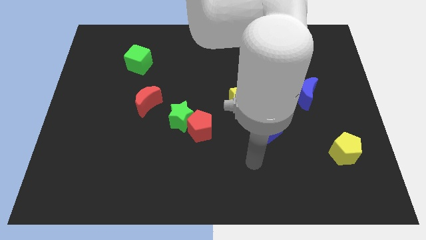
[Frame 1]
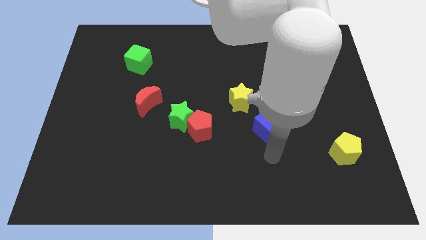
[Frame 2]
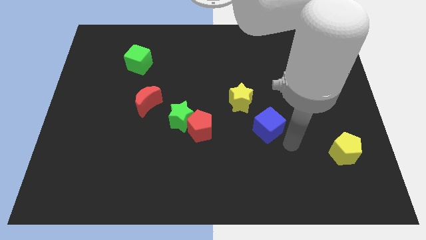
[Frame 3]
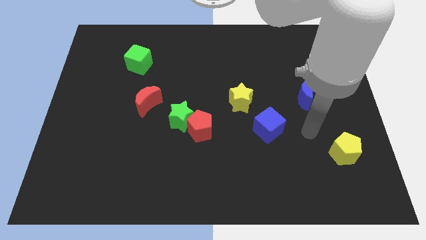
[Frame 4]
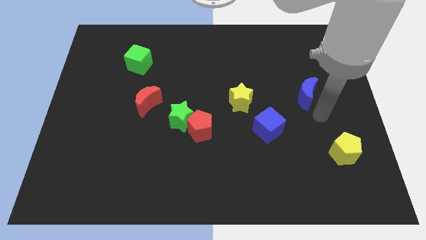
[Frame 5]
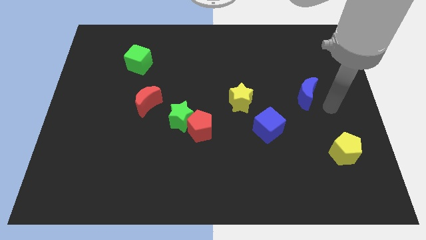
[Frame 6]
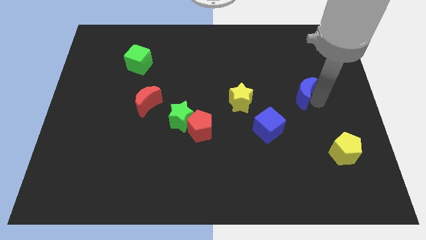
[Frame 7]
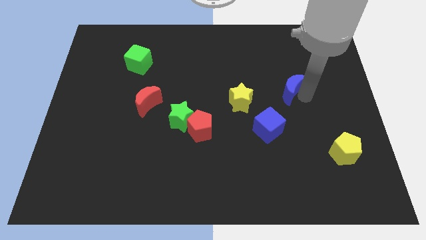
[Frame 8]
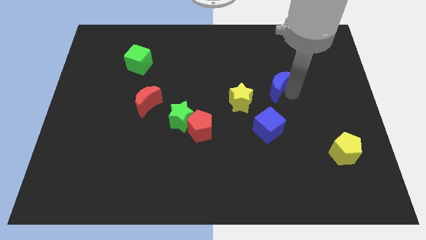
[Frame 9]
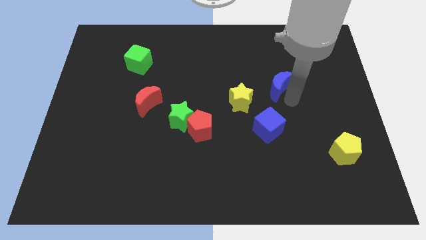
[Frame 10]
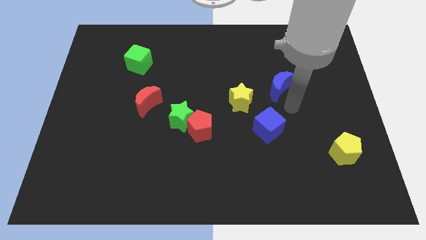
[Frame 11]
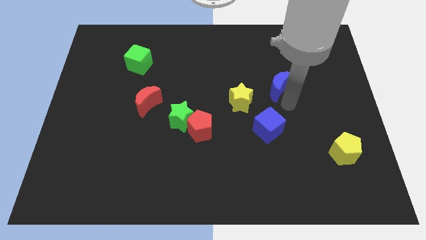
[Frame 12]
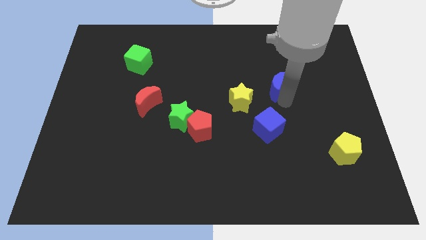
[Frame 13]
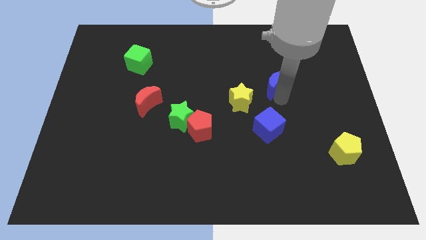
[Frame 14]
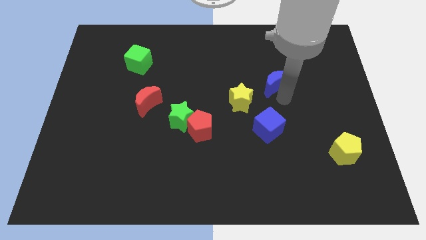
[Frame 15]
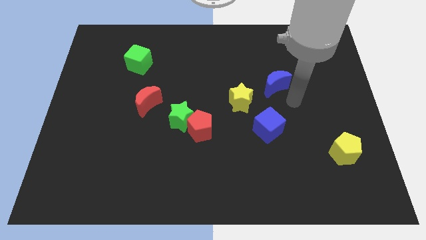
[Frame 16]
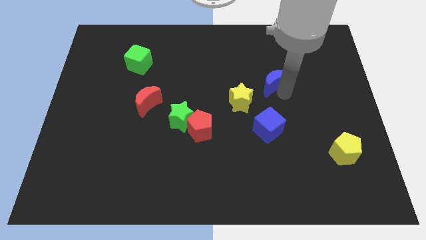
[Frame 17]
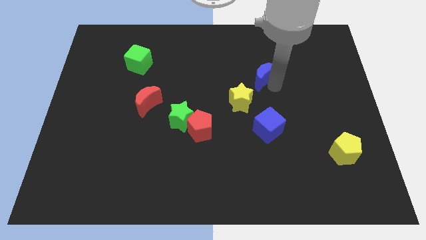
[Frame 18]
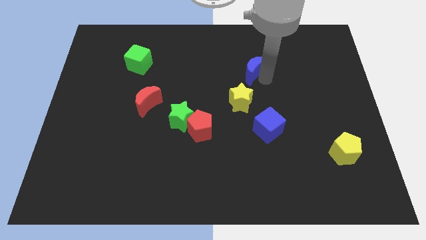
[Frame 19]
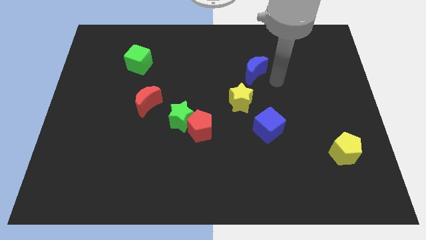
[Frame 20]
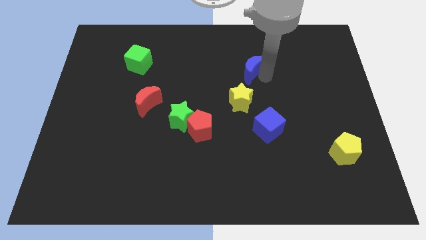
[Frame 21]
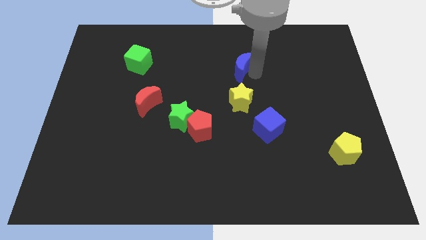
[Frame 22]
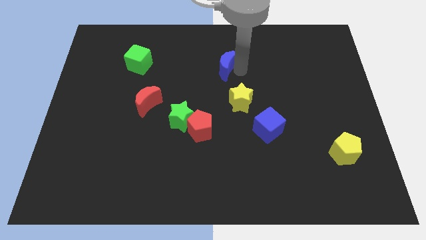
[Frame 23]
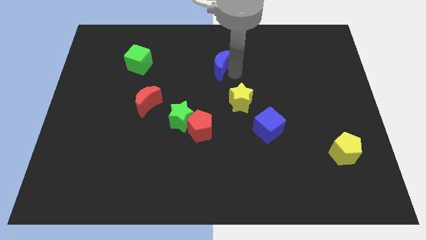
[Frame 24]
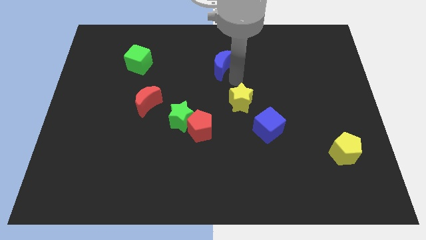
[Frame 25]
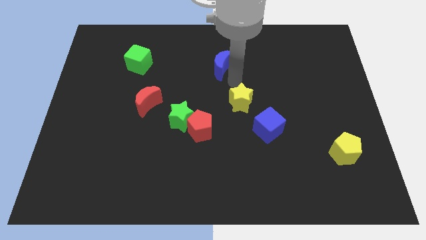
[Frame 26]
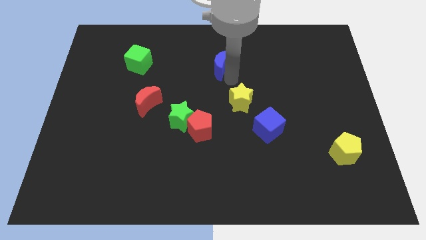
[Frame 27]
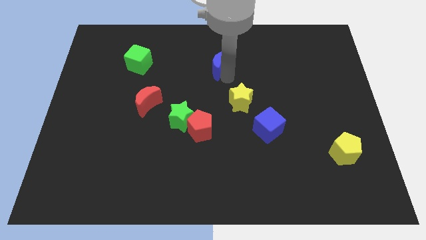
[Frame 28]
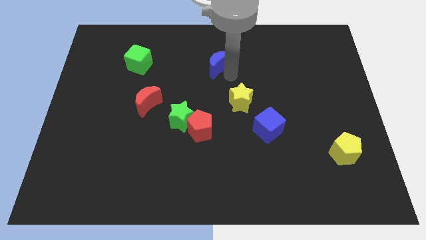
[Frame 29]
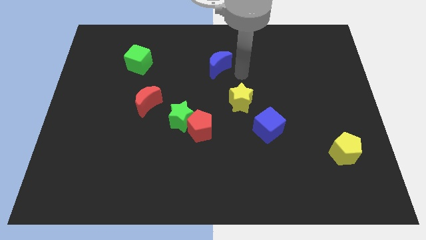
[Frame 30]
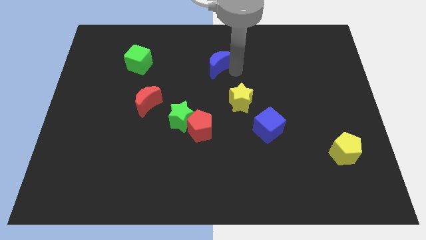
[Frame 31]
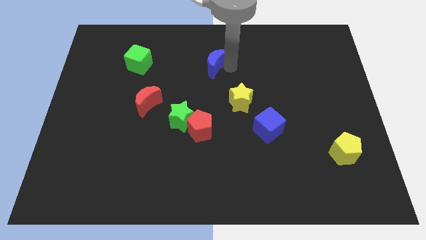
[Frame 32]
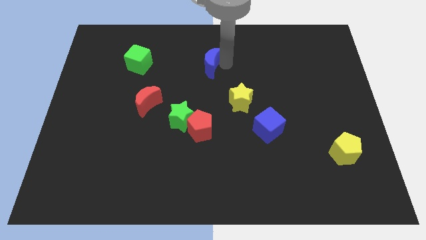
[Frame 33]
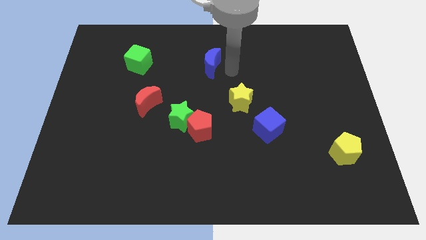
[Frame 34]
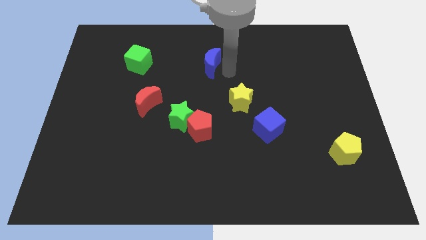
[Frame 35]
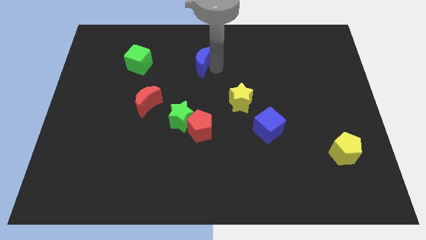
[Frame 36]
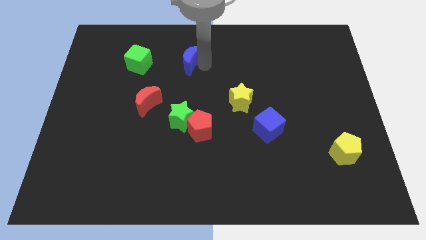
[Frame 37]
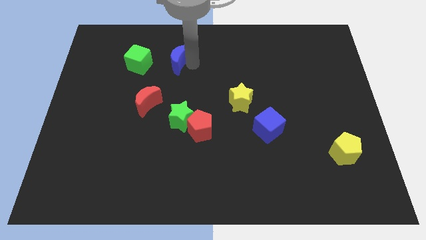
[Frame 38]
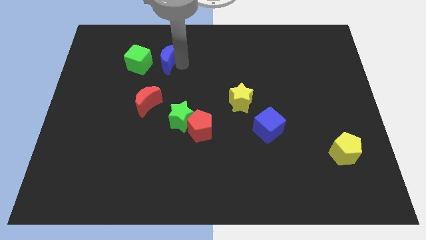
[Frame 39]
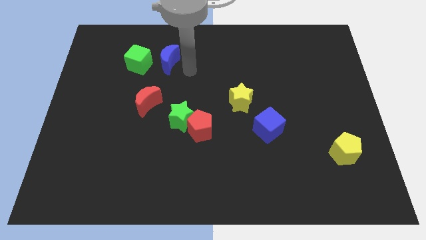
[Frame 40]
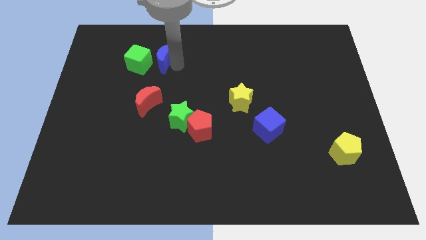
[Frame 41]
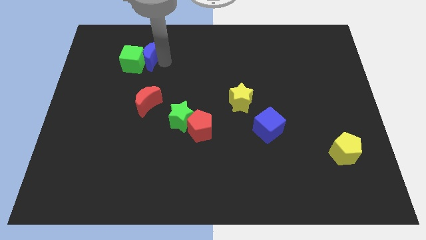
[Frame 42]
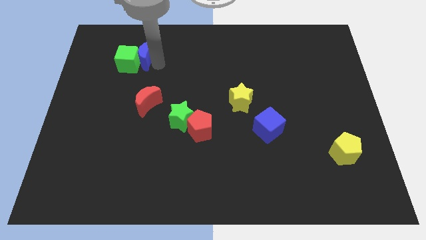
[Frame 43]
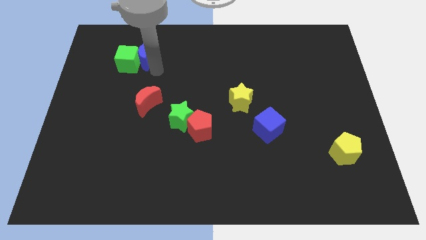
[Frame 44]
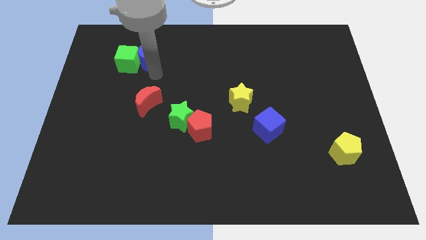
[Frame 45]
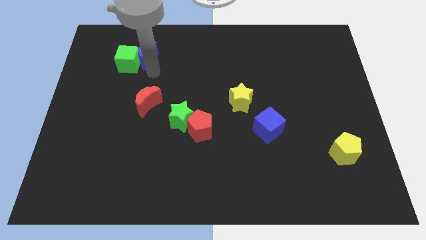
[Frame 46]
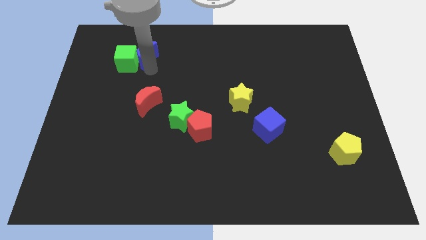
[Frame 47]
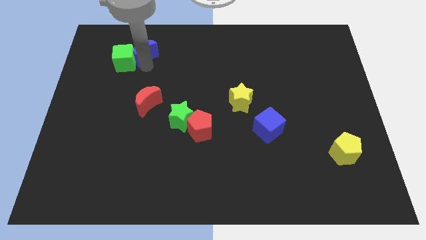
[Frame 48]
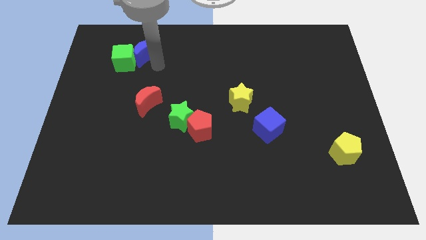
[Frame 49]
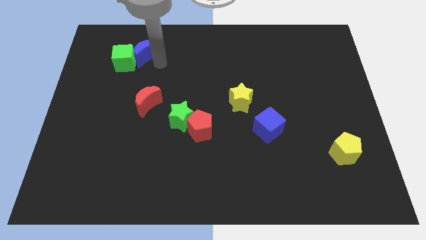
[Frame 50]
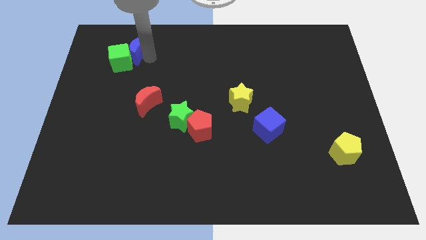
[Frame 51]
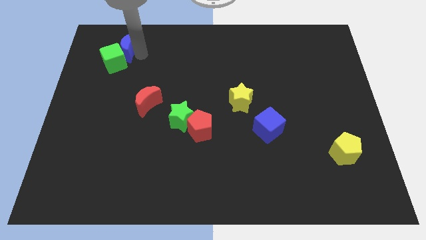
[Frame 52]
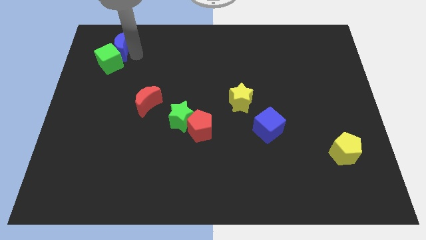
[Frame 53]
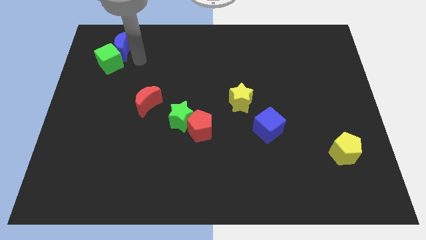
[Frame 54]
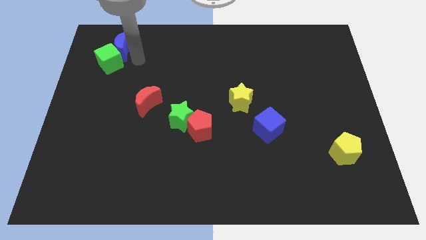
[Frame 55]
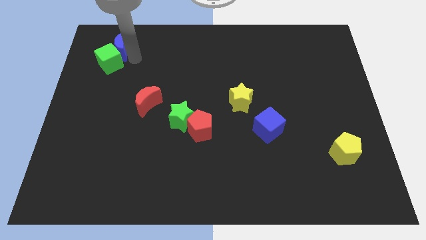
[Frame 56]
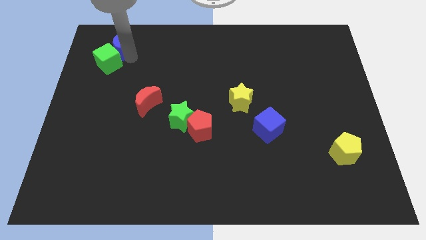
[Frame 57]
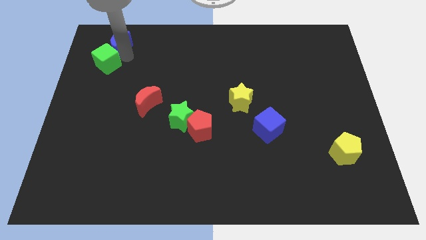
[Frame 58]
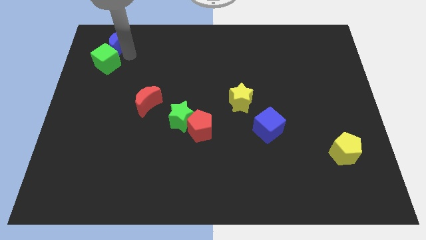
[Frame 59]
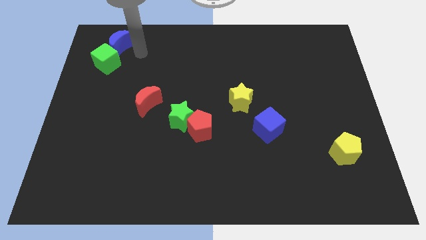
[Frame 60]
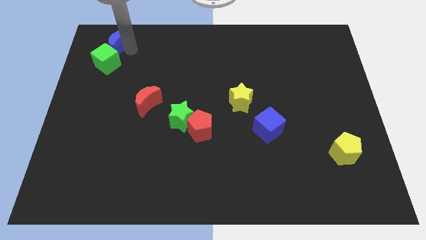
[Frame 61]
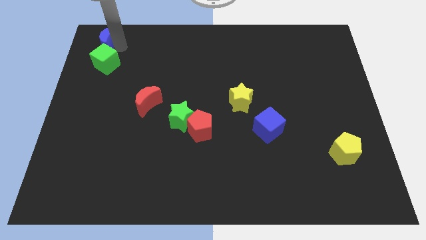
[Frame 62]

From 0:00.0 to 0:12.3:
push the blue moon to the top left
